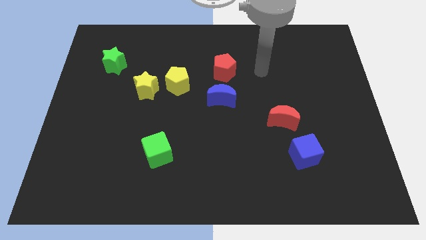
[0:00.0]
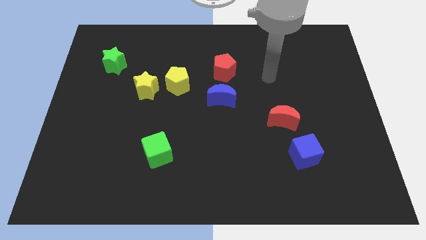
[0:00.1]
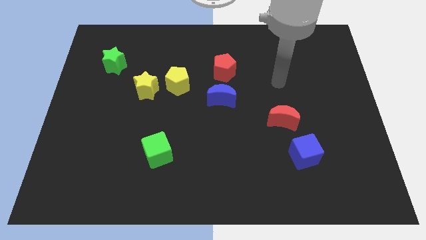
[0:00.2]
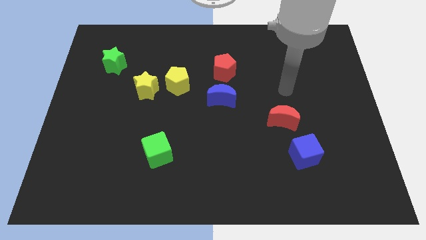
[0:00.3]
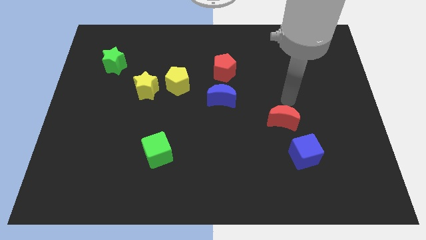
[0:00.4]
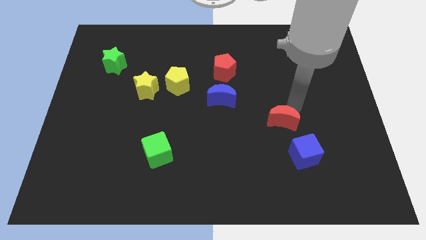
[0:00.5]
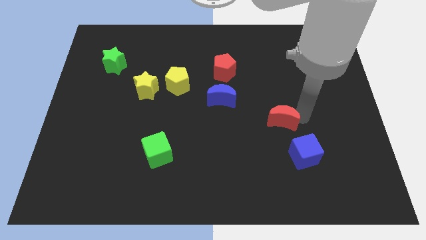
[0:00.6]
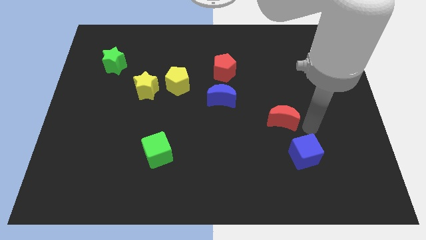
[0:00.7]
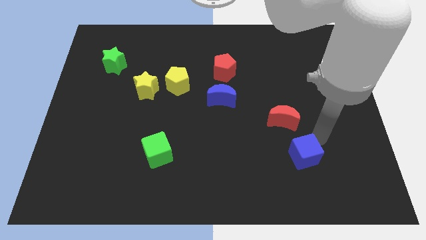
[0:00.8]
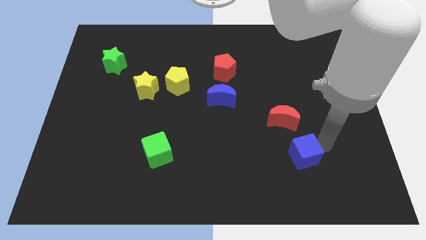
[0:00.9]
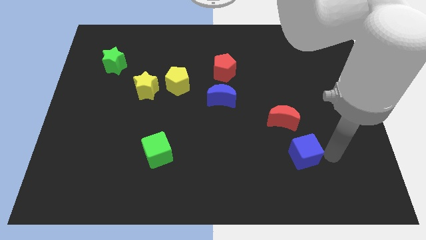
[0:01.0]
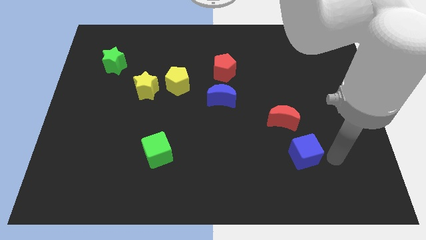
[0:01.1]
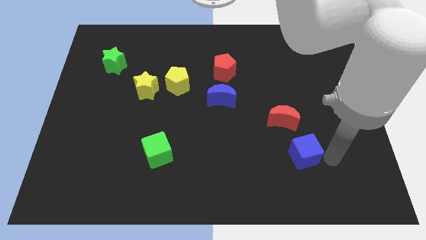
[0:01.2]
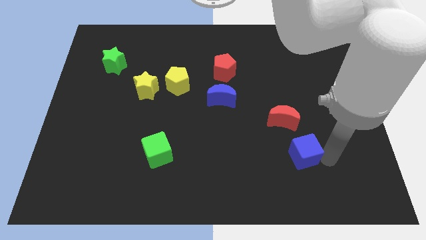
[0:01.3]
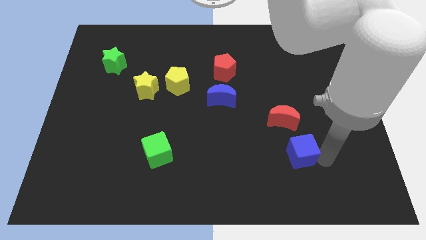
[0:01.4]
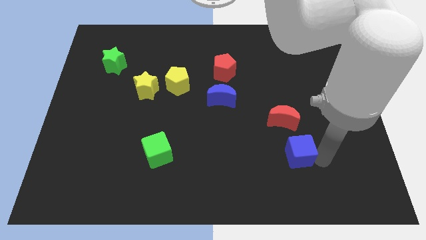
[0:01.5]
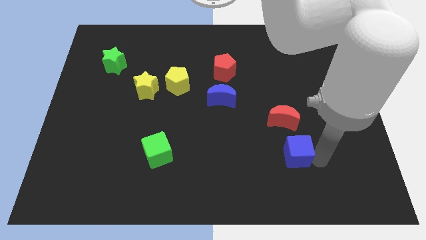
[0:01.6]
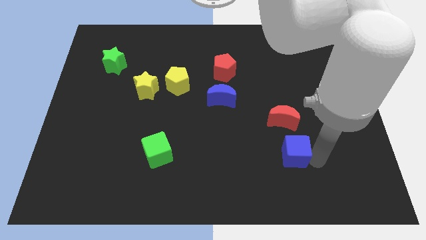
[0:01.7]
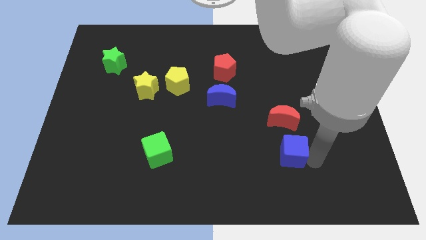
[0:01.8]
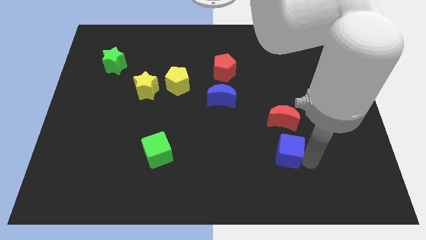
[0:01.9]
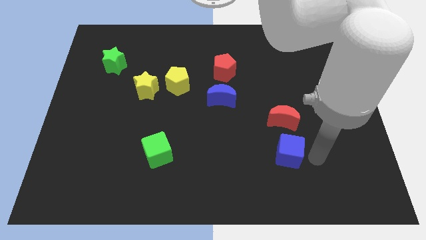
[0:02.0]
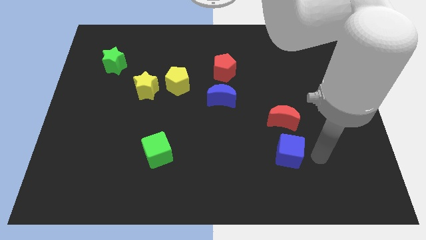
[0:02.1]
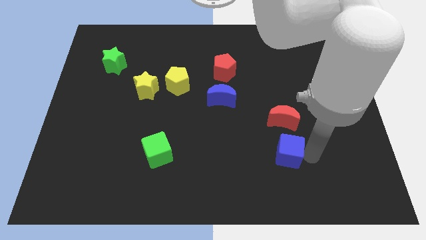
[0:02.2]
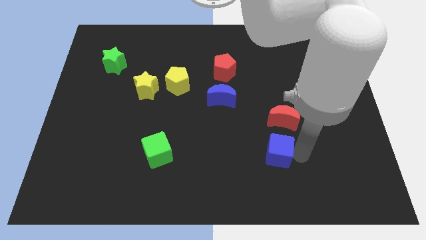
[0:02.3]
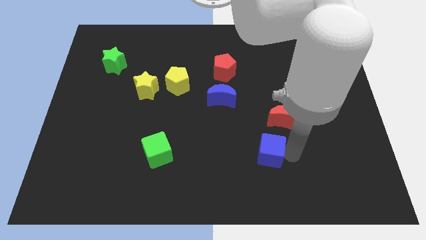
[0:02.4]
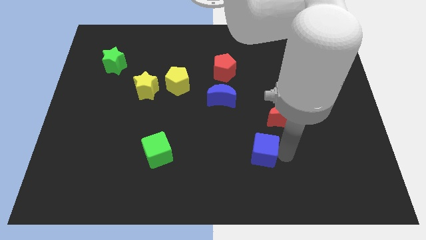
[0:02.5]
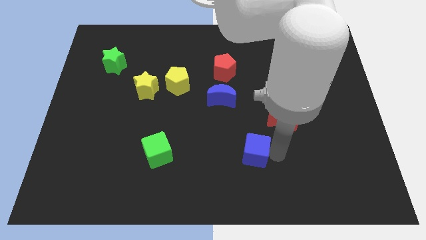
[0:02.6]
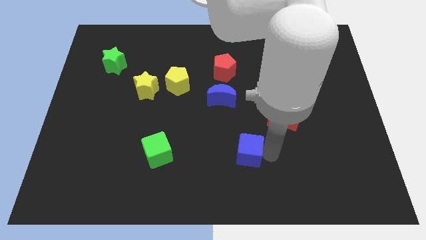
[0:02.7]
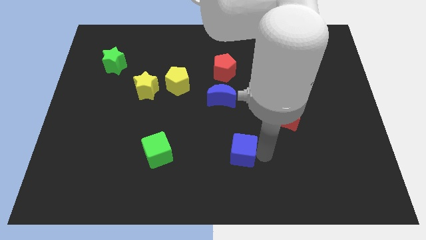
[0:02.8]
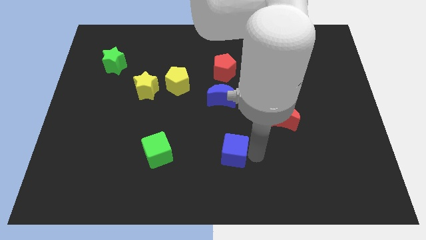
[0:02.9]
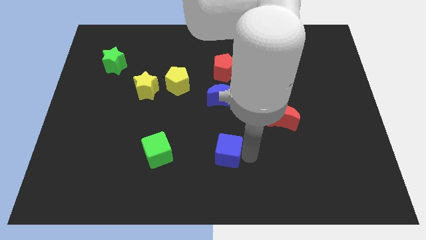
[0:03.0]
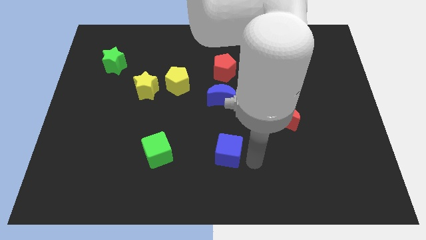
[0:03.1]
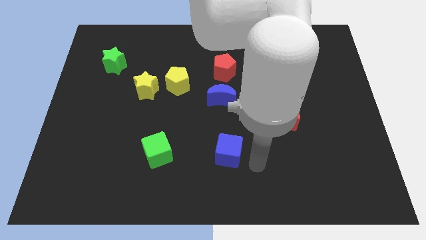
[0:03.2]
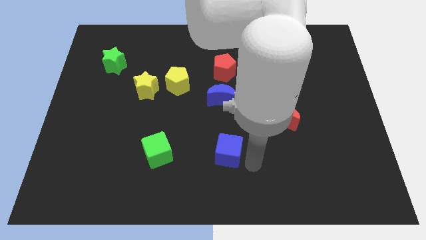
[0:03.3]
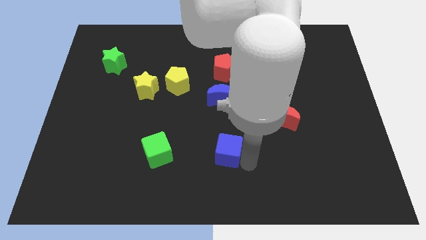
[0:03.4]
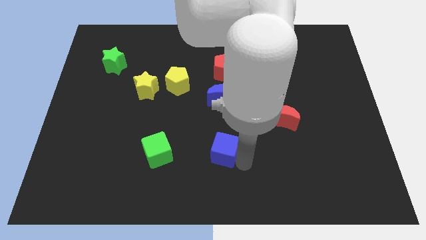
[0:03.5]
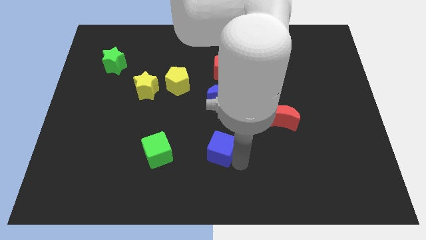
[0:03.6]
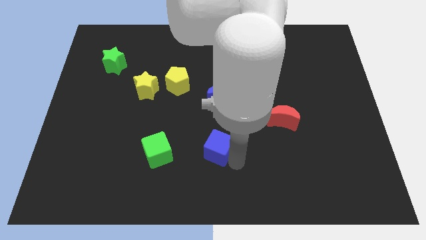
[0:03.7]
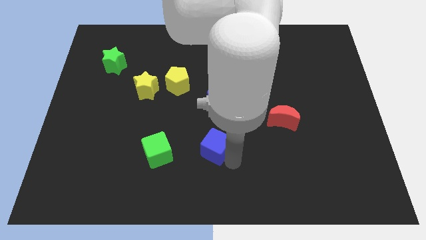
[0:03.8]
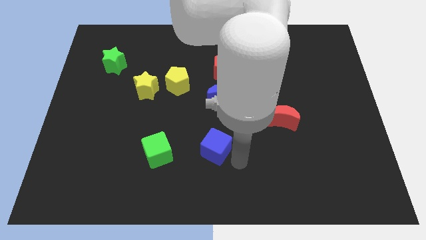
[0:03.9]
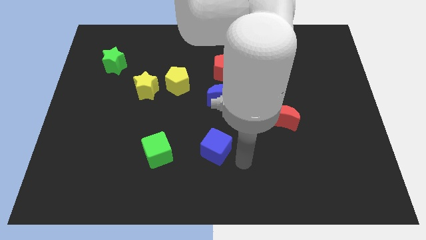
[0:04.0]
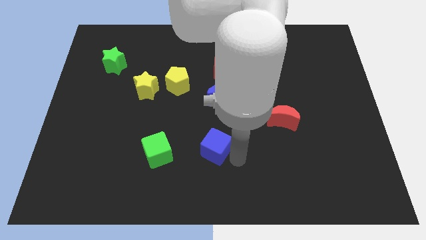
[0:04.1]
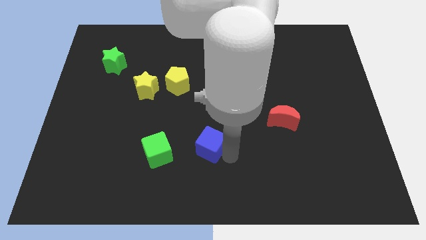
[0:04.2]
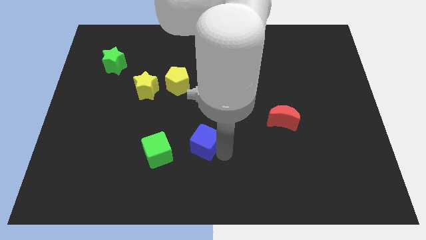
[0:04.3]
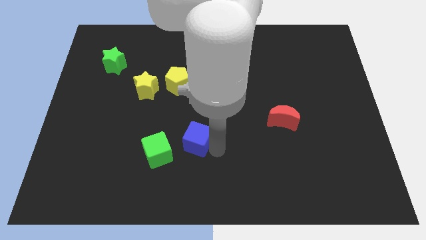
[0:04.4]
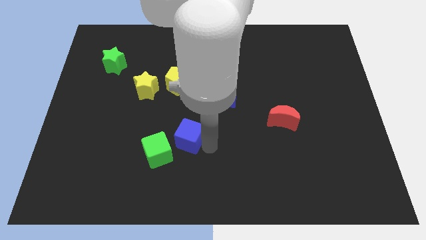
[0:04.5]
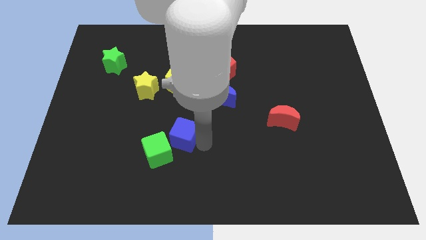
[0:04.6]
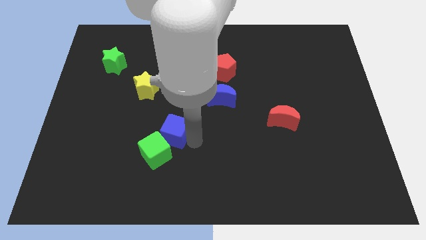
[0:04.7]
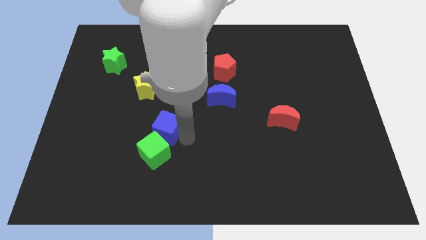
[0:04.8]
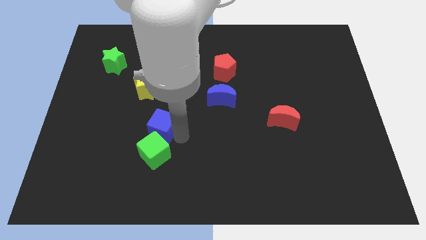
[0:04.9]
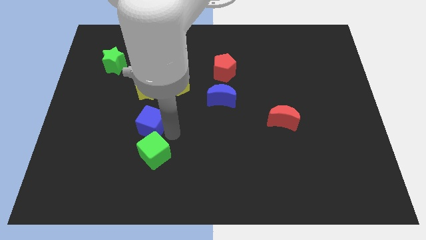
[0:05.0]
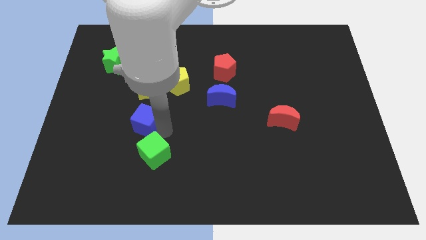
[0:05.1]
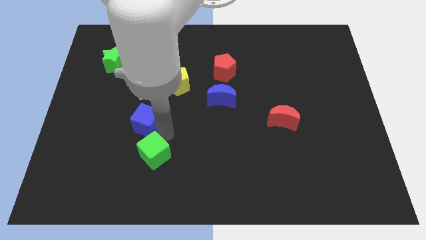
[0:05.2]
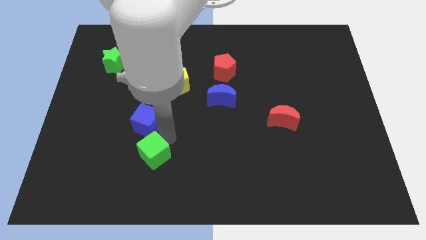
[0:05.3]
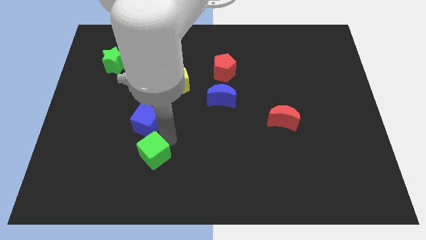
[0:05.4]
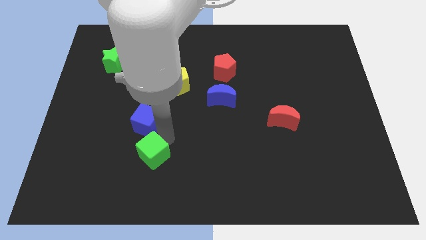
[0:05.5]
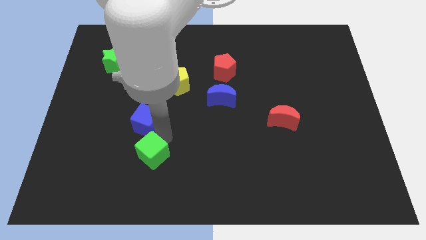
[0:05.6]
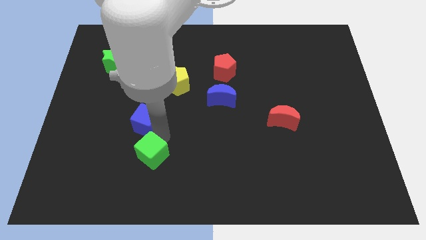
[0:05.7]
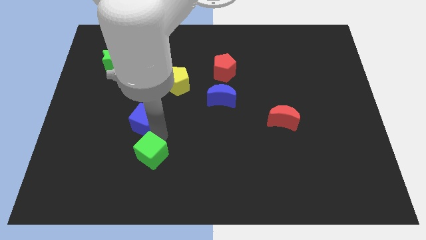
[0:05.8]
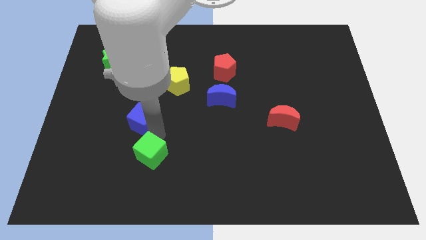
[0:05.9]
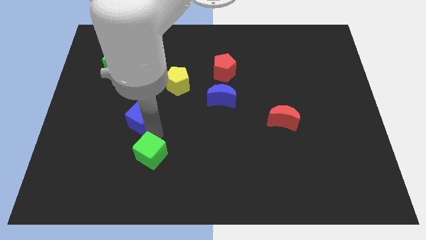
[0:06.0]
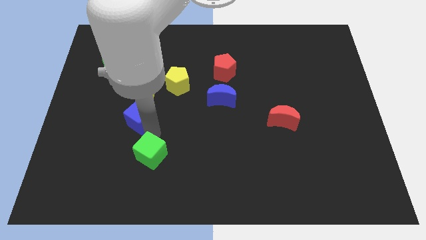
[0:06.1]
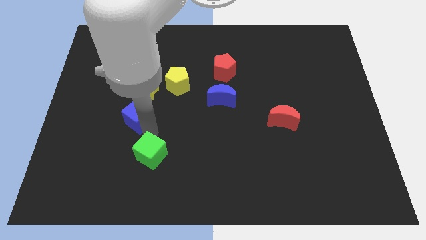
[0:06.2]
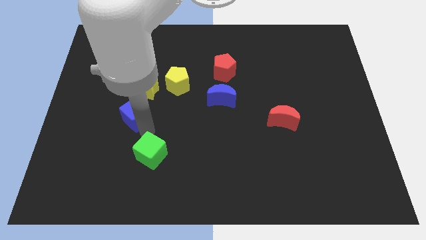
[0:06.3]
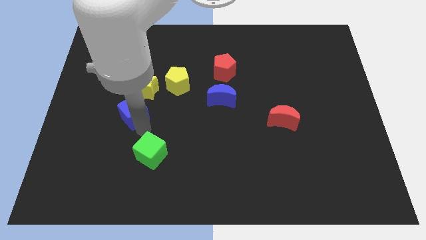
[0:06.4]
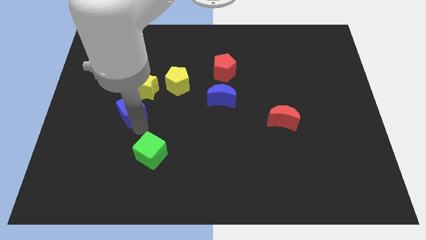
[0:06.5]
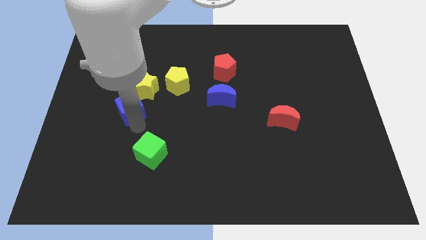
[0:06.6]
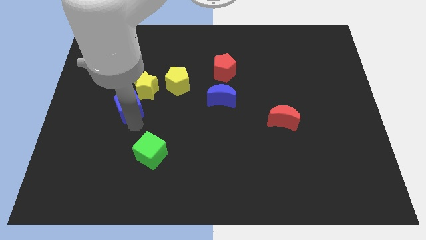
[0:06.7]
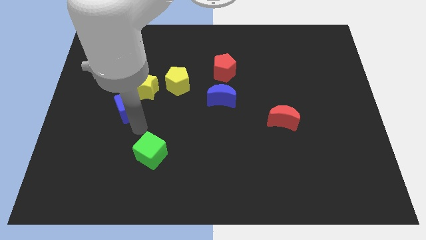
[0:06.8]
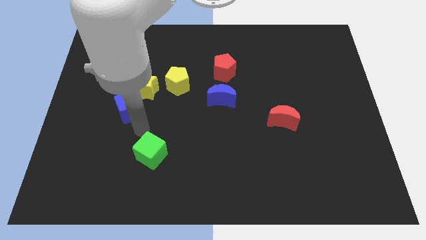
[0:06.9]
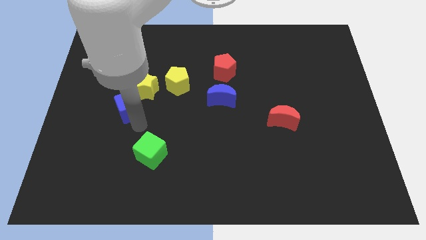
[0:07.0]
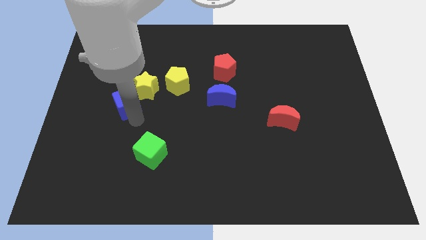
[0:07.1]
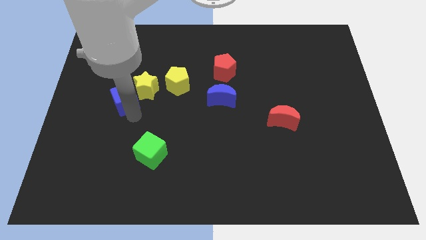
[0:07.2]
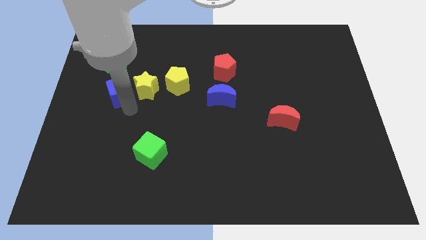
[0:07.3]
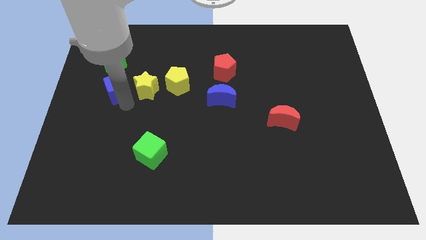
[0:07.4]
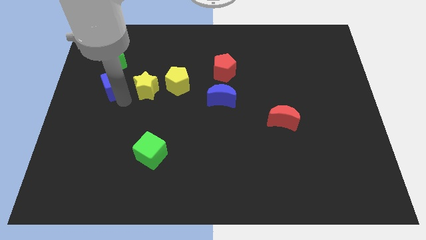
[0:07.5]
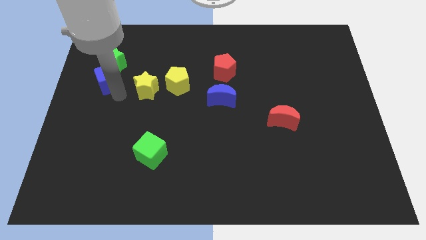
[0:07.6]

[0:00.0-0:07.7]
put the blue cube towards the green star
